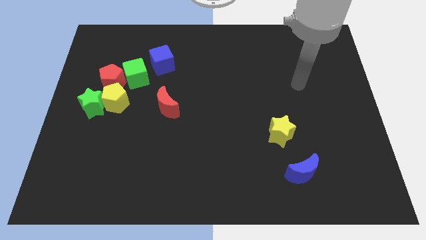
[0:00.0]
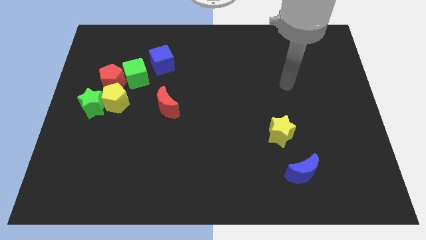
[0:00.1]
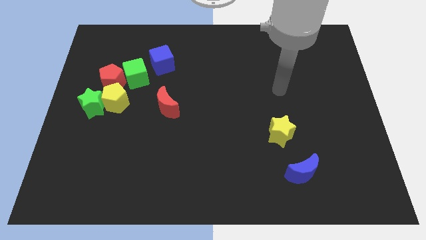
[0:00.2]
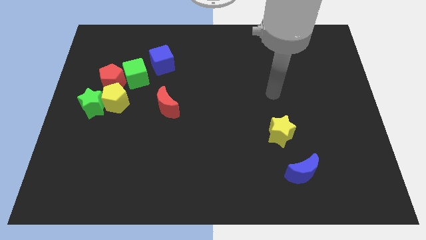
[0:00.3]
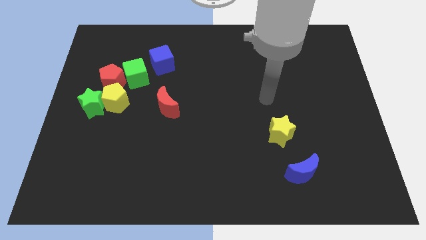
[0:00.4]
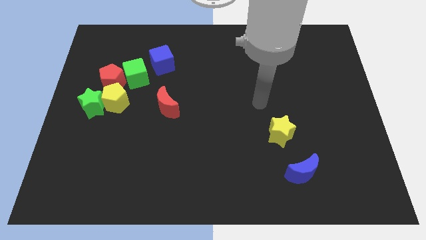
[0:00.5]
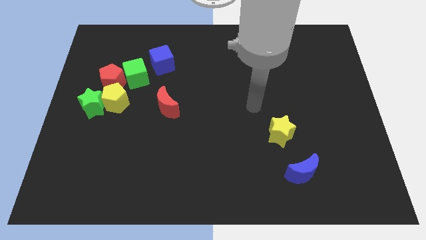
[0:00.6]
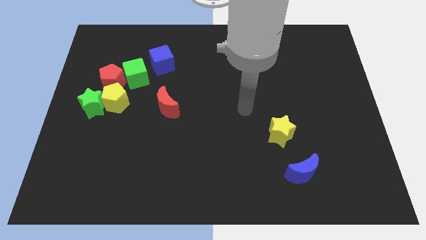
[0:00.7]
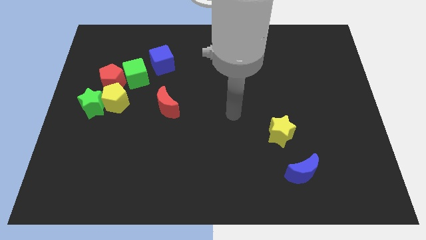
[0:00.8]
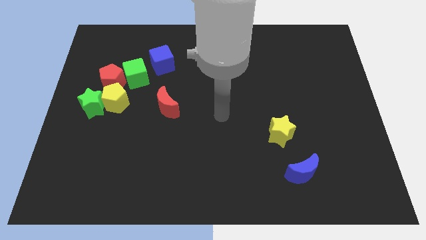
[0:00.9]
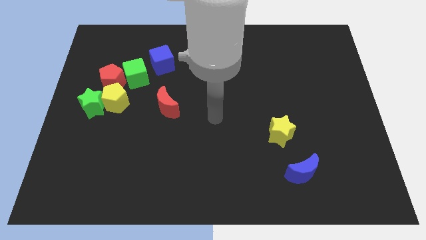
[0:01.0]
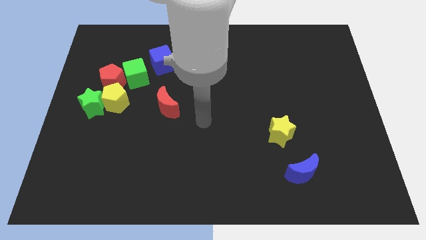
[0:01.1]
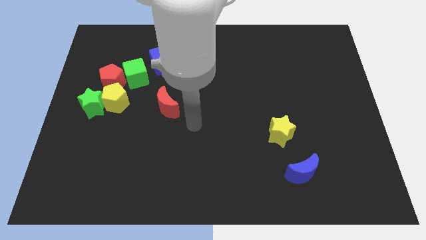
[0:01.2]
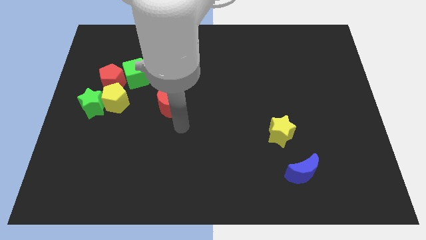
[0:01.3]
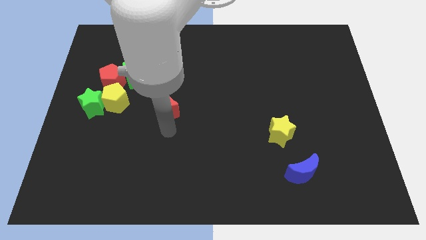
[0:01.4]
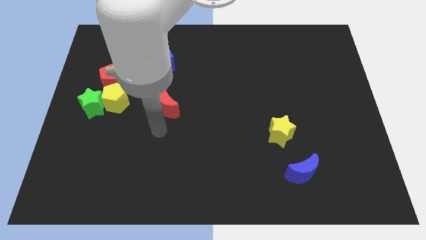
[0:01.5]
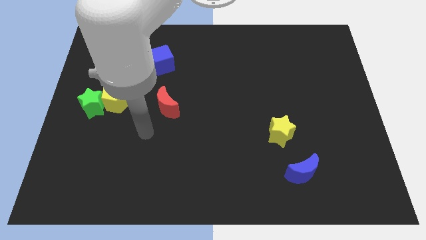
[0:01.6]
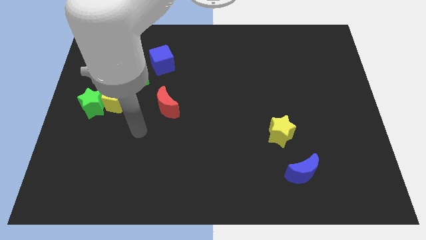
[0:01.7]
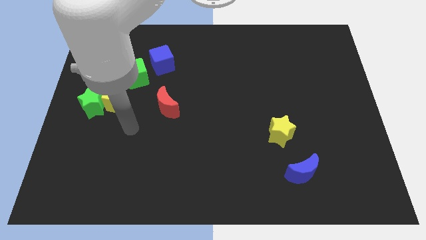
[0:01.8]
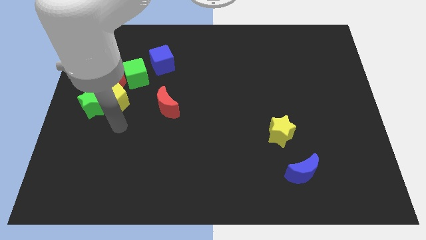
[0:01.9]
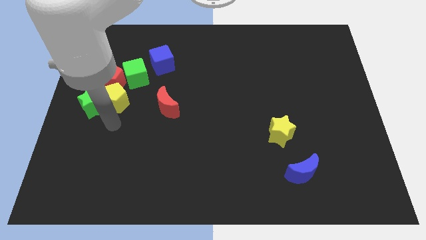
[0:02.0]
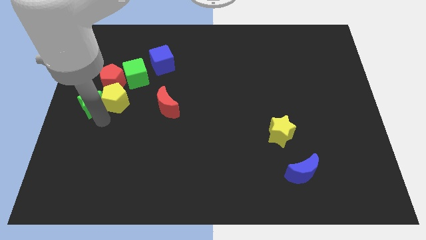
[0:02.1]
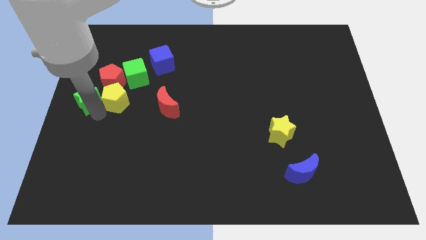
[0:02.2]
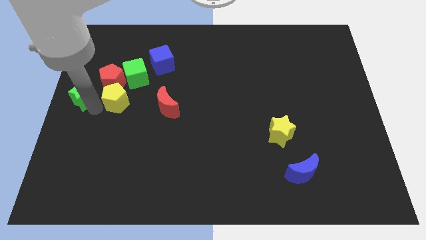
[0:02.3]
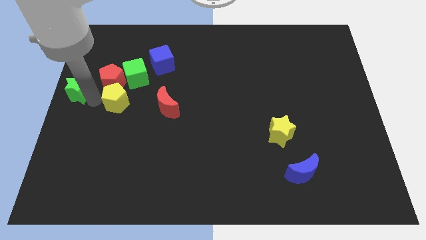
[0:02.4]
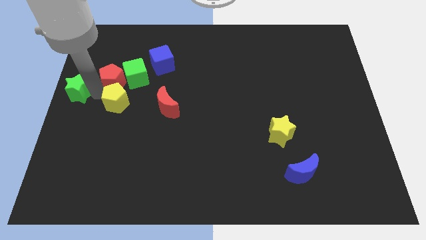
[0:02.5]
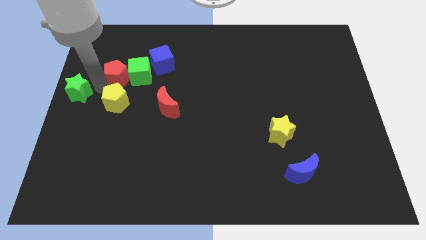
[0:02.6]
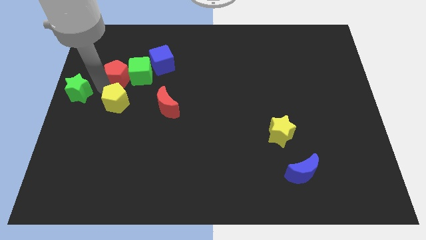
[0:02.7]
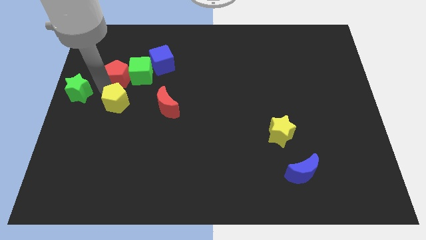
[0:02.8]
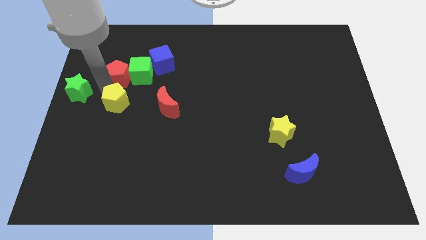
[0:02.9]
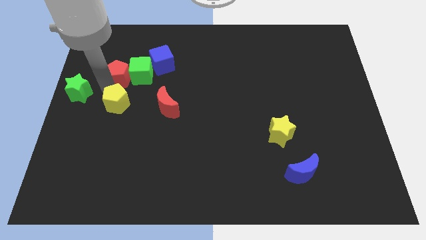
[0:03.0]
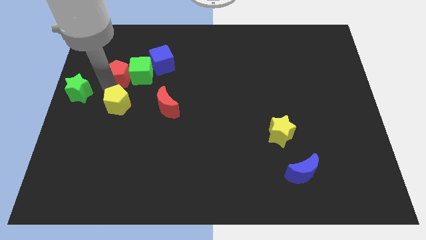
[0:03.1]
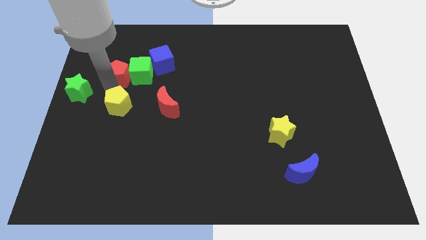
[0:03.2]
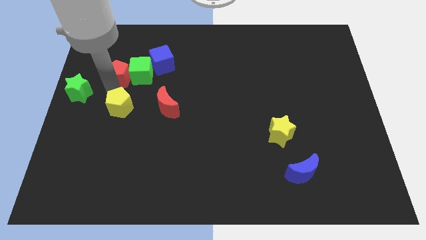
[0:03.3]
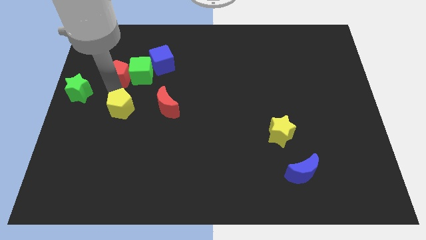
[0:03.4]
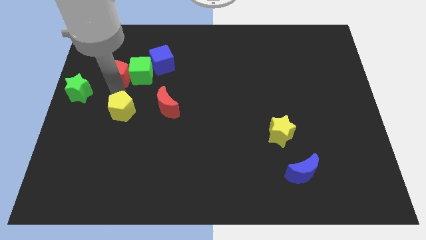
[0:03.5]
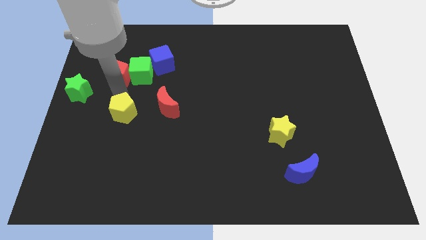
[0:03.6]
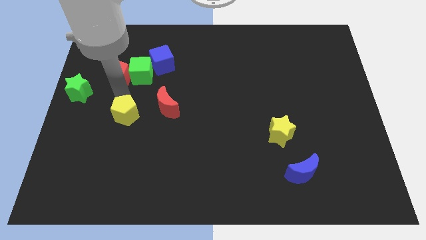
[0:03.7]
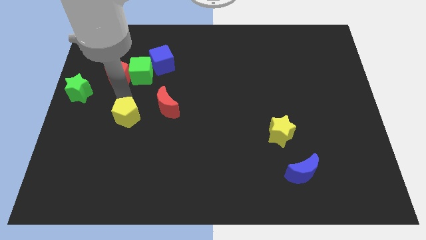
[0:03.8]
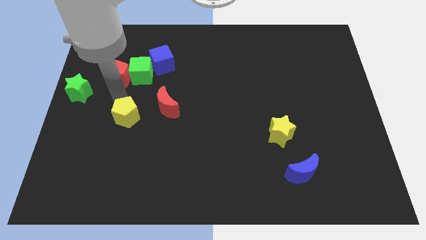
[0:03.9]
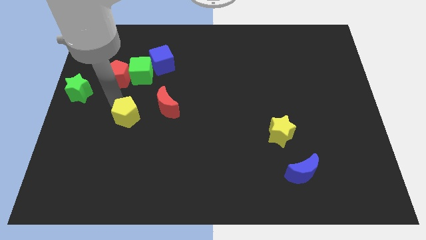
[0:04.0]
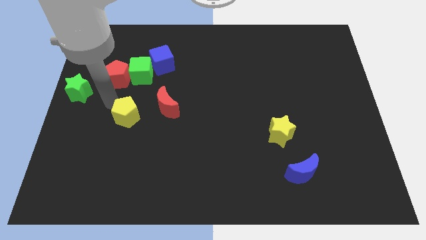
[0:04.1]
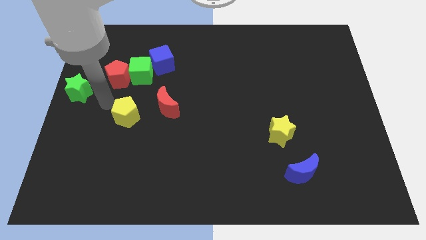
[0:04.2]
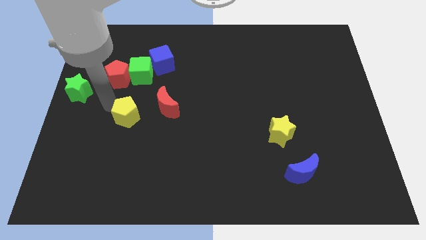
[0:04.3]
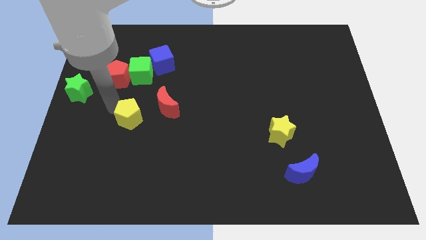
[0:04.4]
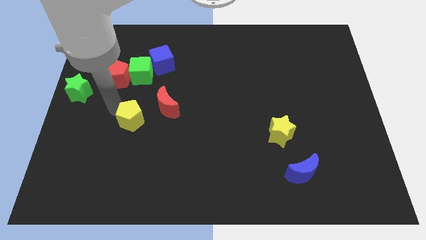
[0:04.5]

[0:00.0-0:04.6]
slightly slide the yellow pentagon downwards and right diagonally

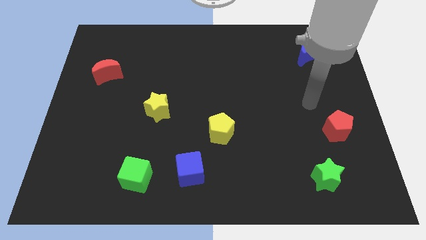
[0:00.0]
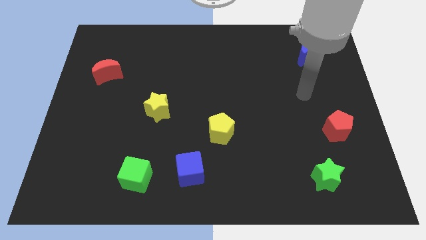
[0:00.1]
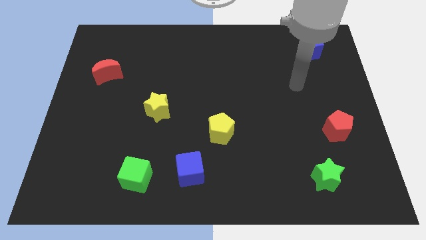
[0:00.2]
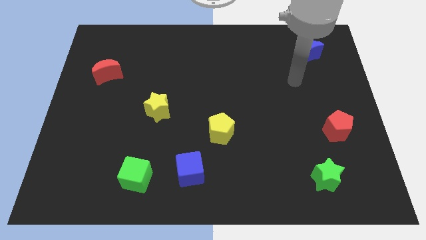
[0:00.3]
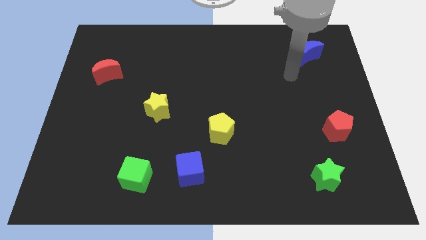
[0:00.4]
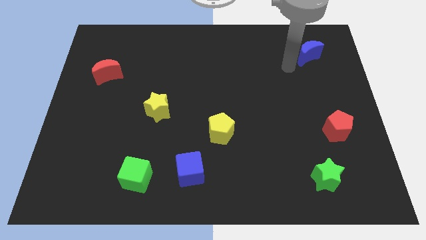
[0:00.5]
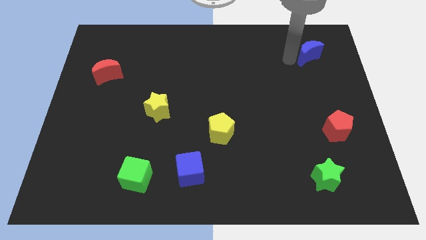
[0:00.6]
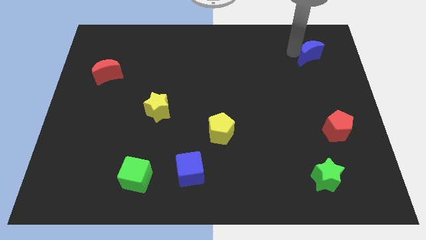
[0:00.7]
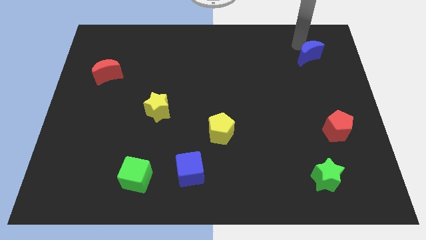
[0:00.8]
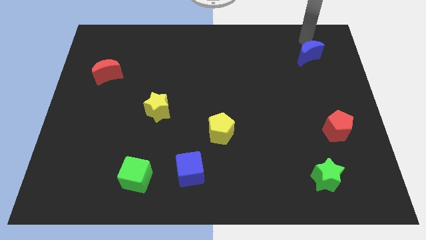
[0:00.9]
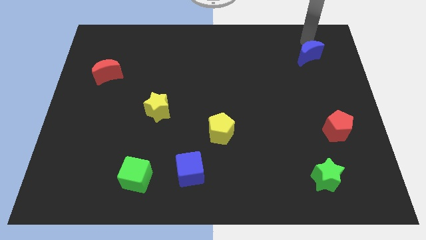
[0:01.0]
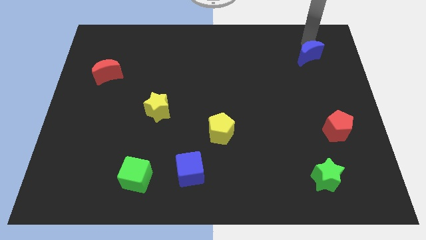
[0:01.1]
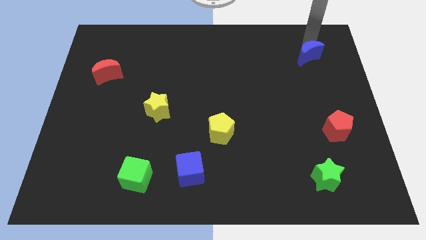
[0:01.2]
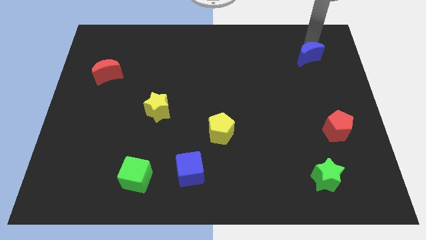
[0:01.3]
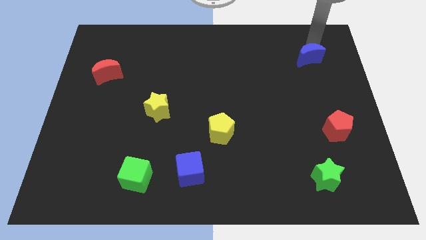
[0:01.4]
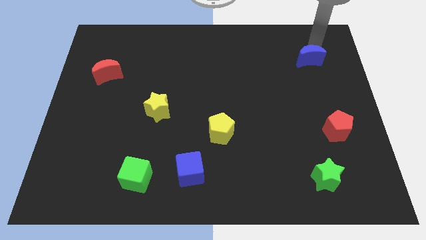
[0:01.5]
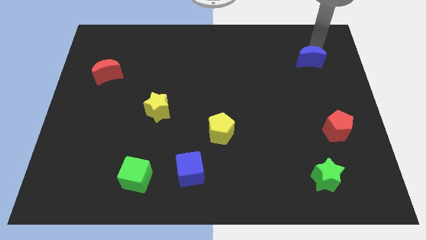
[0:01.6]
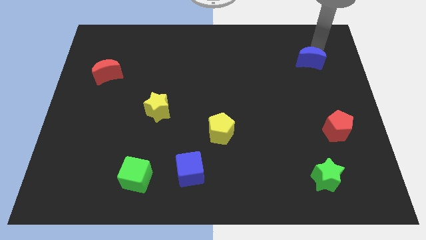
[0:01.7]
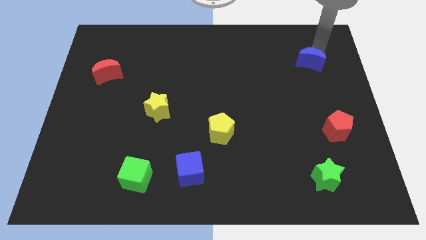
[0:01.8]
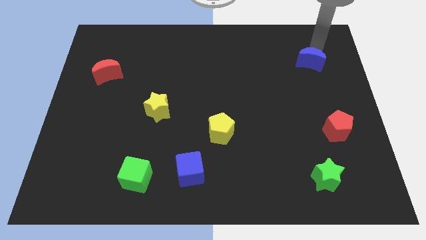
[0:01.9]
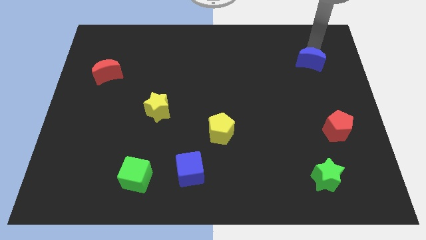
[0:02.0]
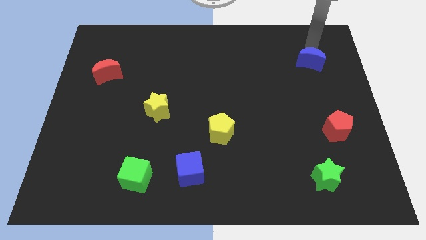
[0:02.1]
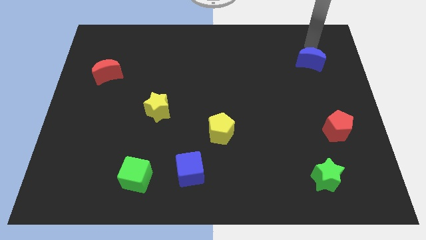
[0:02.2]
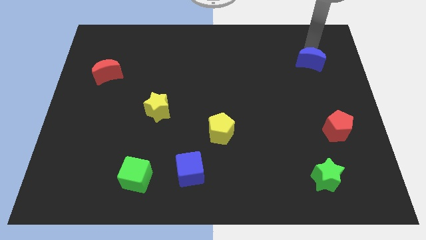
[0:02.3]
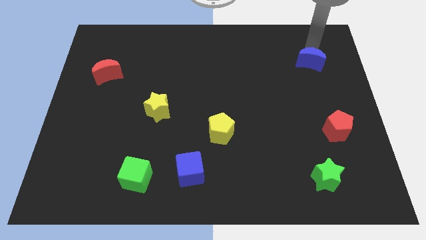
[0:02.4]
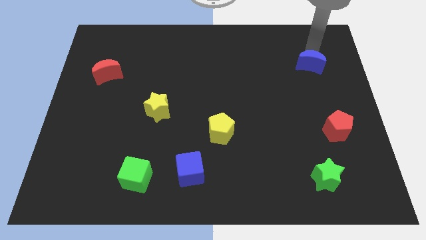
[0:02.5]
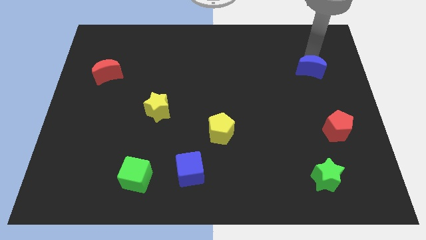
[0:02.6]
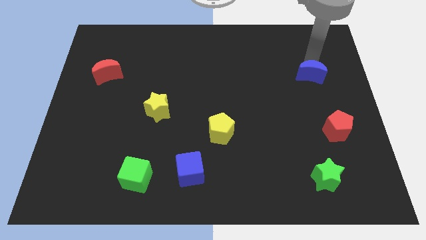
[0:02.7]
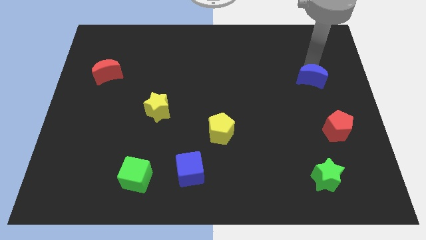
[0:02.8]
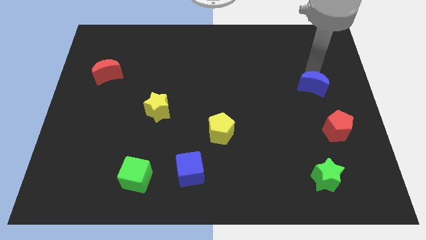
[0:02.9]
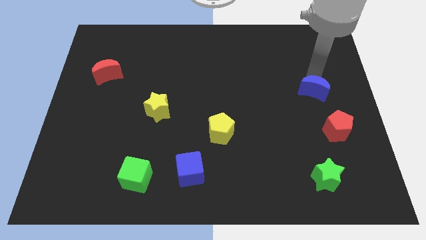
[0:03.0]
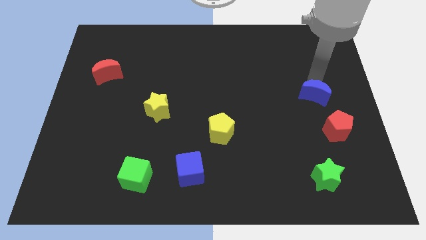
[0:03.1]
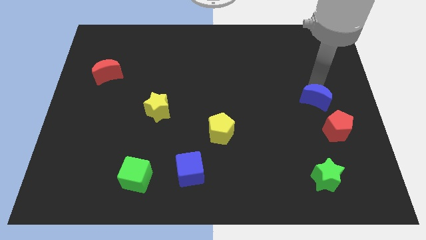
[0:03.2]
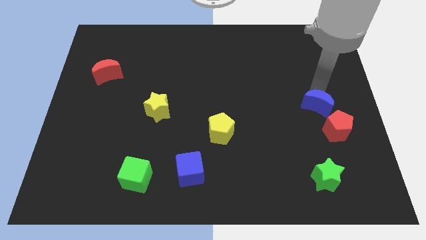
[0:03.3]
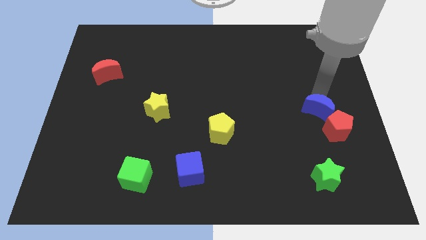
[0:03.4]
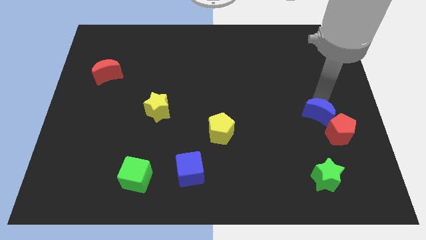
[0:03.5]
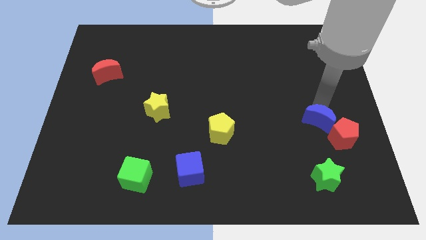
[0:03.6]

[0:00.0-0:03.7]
slide the blue moon downwards

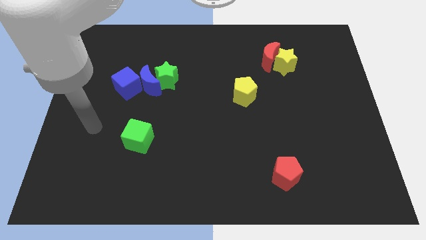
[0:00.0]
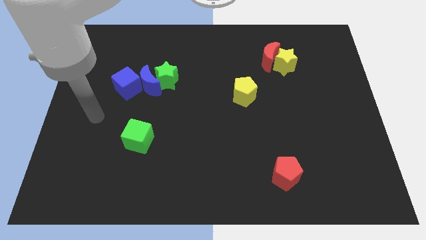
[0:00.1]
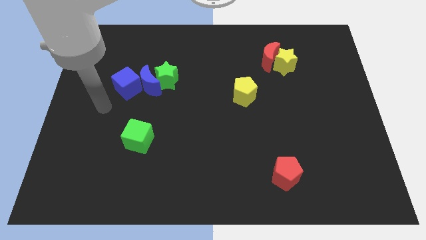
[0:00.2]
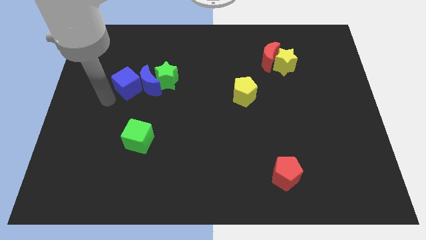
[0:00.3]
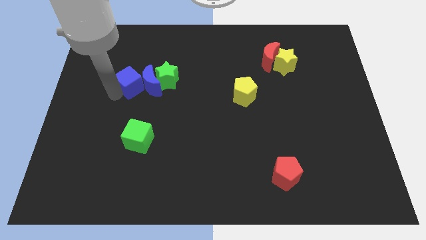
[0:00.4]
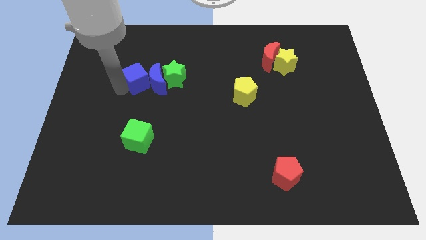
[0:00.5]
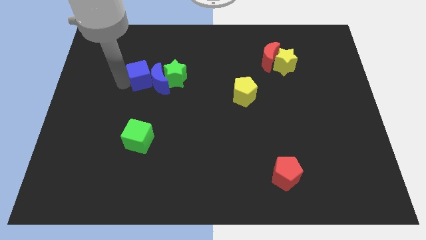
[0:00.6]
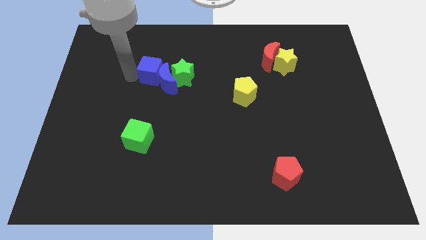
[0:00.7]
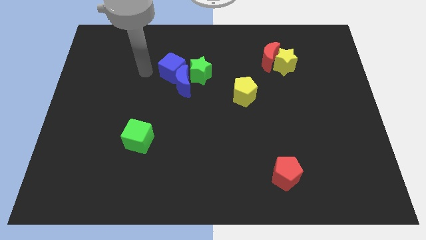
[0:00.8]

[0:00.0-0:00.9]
slightly push the blue moon to the right
